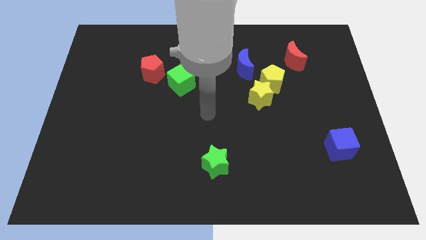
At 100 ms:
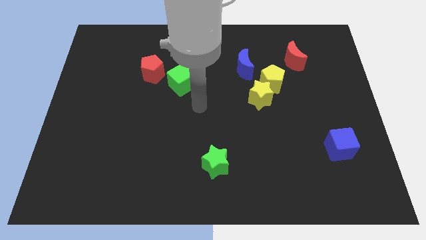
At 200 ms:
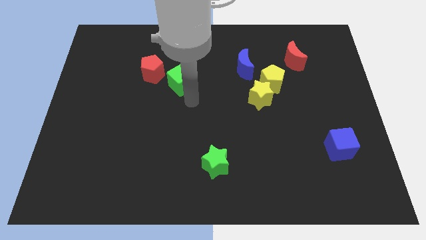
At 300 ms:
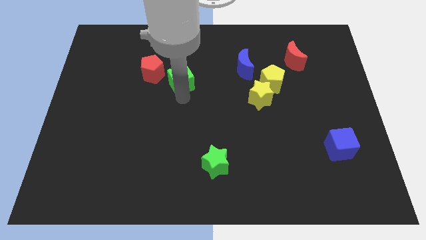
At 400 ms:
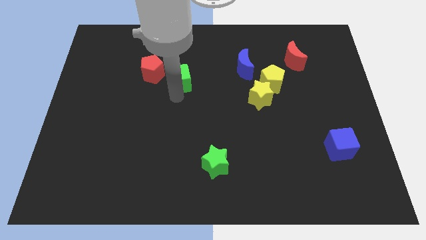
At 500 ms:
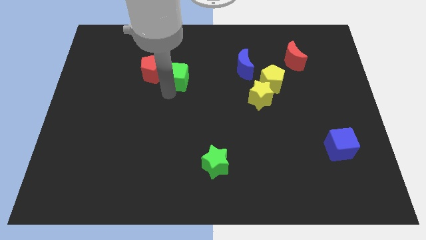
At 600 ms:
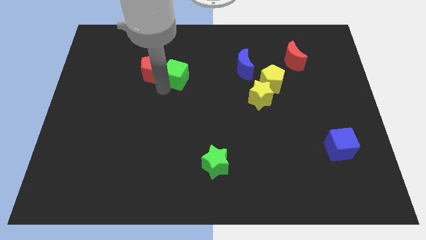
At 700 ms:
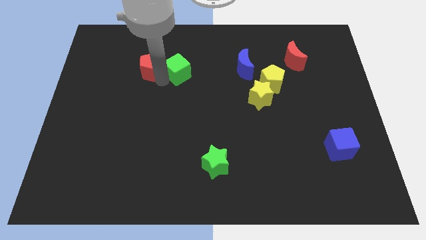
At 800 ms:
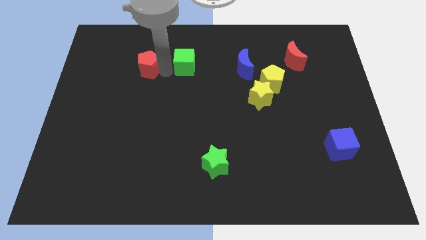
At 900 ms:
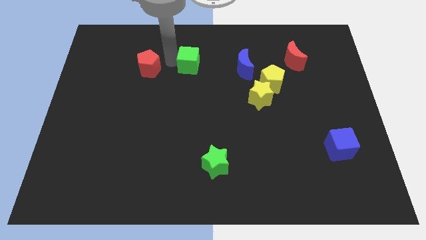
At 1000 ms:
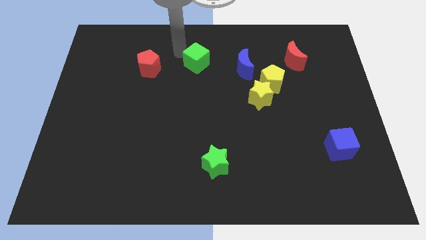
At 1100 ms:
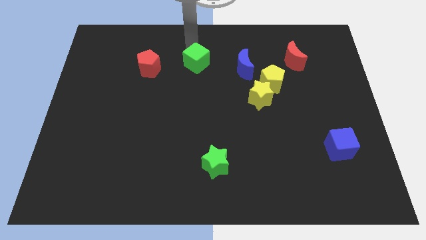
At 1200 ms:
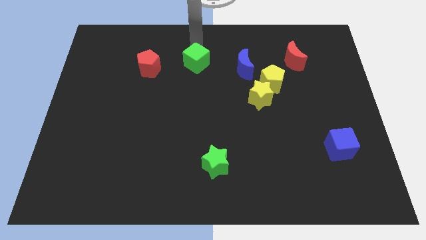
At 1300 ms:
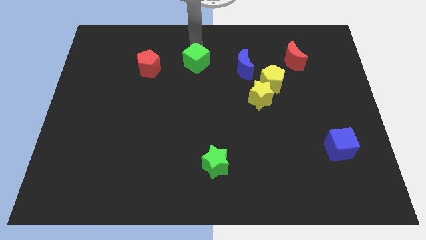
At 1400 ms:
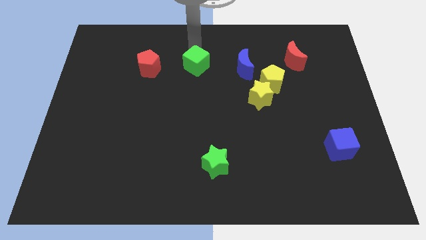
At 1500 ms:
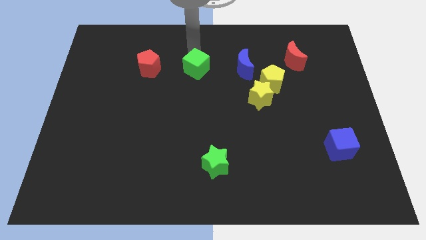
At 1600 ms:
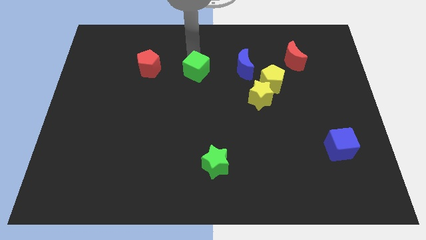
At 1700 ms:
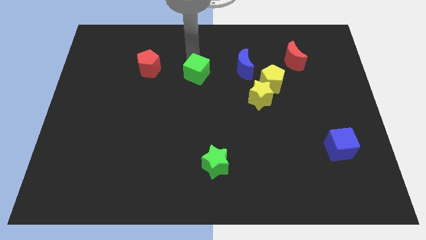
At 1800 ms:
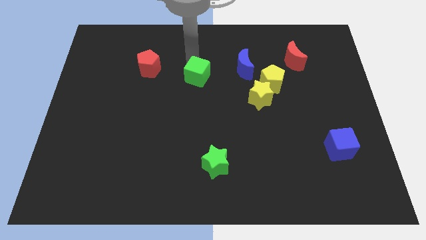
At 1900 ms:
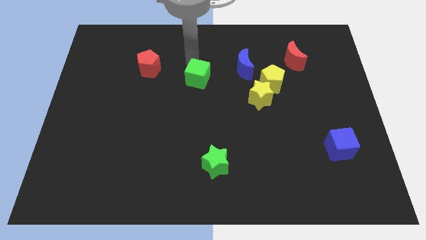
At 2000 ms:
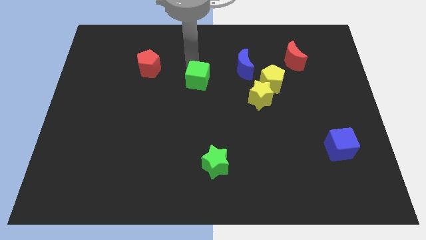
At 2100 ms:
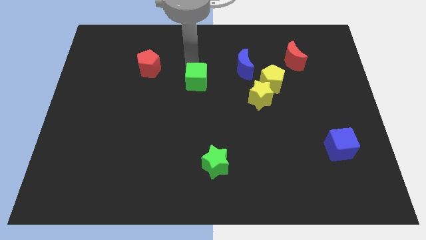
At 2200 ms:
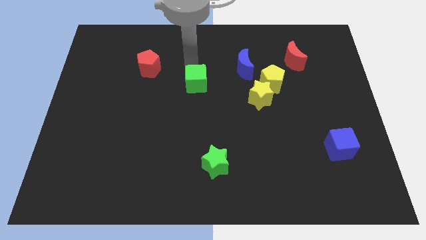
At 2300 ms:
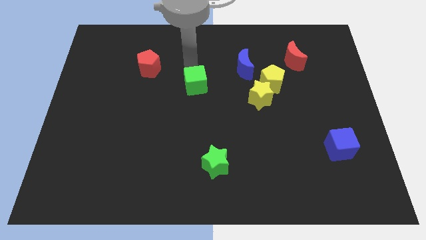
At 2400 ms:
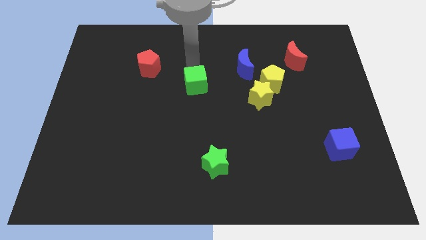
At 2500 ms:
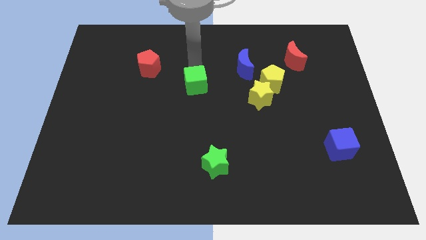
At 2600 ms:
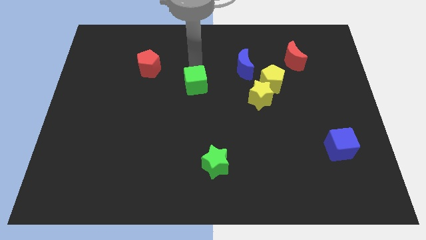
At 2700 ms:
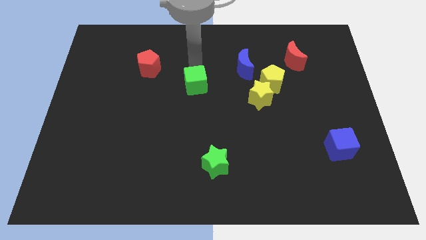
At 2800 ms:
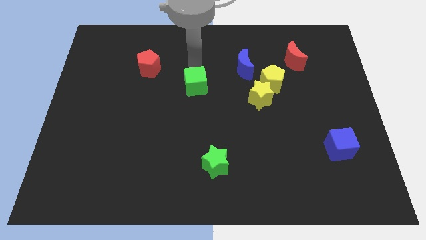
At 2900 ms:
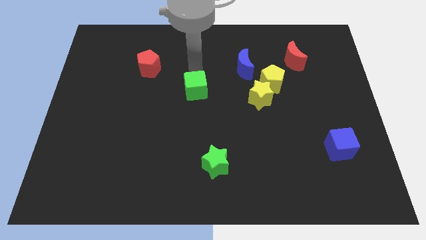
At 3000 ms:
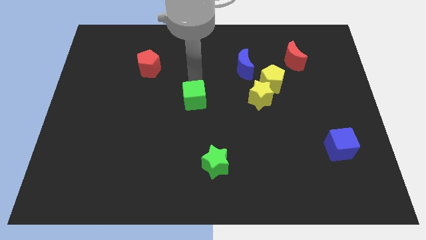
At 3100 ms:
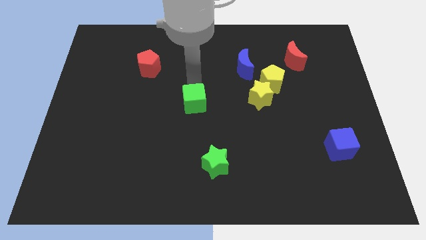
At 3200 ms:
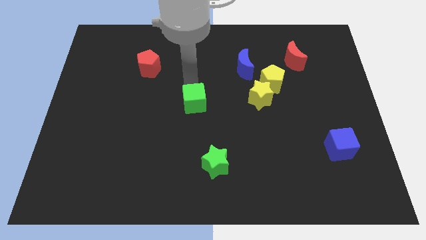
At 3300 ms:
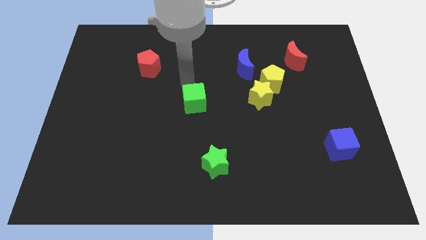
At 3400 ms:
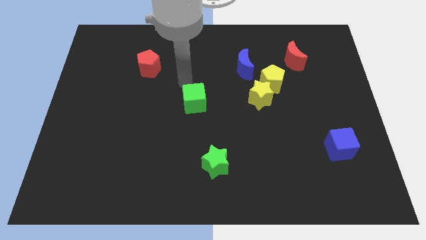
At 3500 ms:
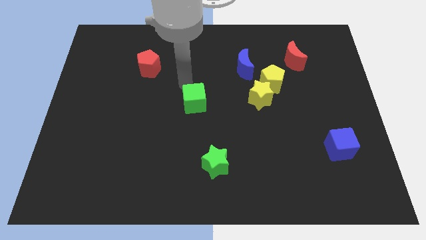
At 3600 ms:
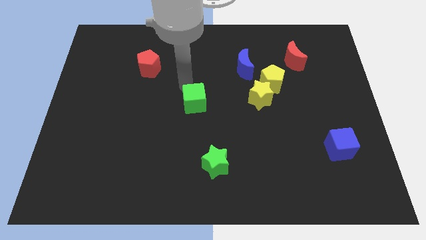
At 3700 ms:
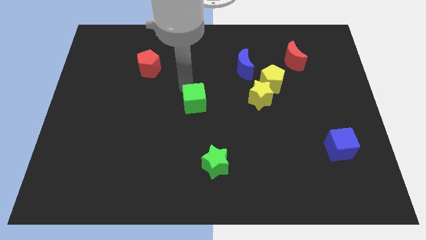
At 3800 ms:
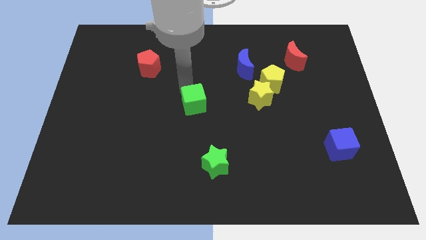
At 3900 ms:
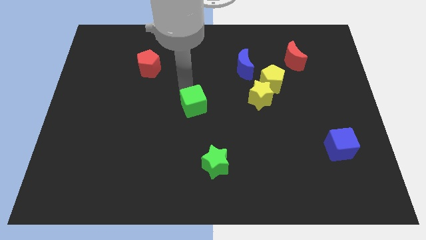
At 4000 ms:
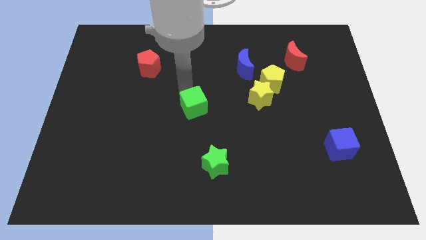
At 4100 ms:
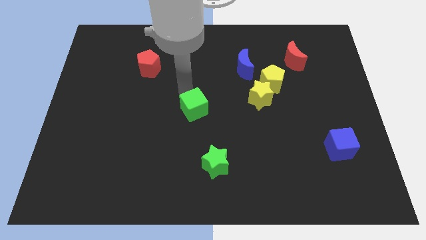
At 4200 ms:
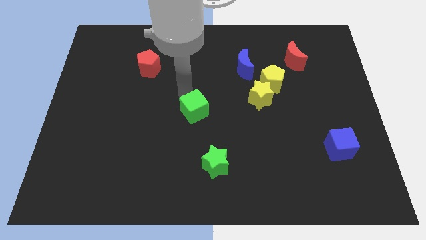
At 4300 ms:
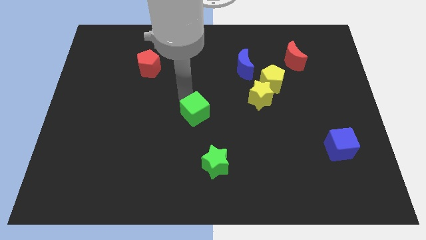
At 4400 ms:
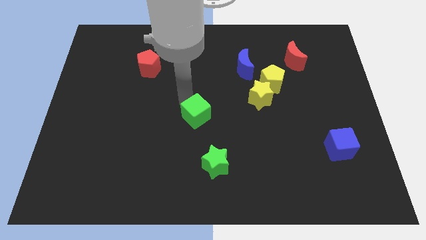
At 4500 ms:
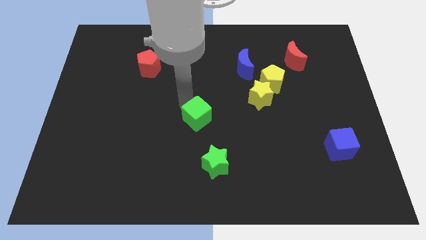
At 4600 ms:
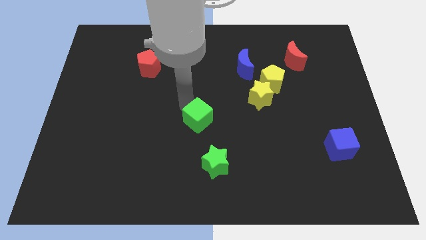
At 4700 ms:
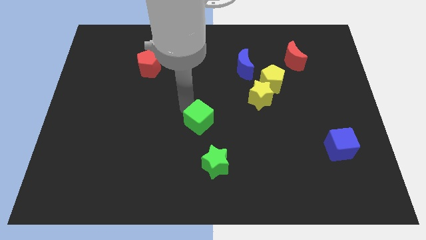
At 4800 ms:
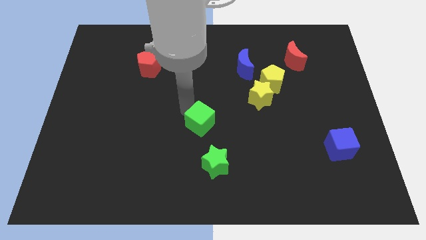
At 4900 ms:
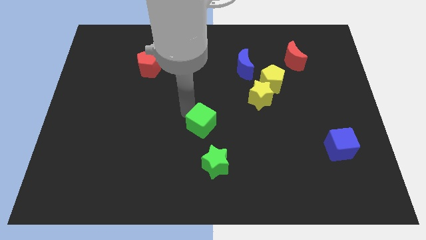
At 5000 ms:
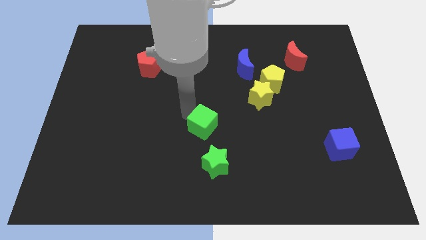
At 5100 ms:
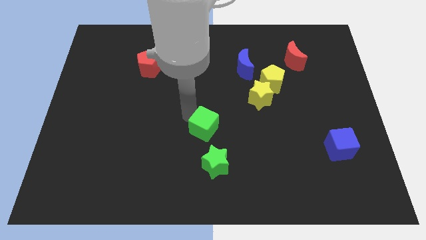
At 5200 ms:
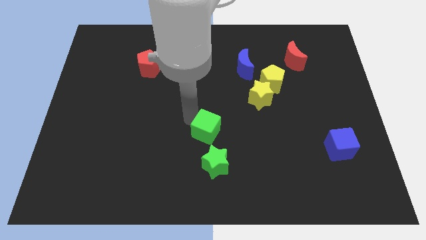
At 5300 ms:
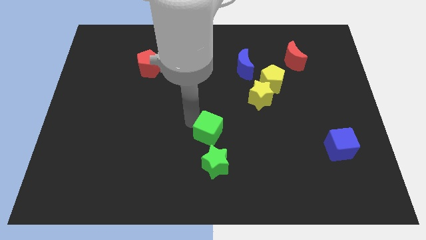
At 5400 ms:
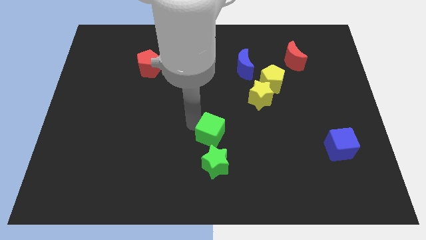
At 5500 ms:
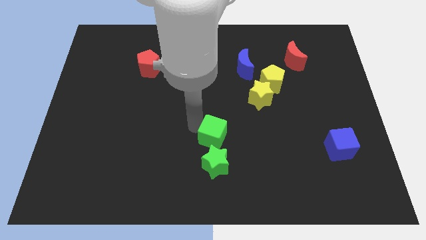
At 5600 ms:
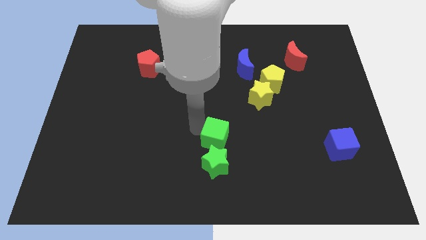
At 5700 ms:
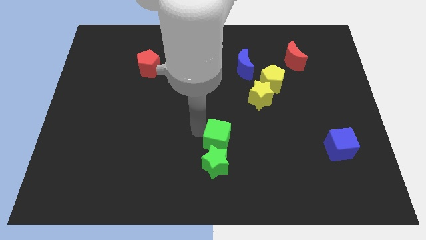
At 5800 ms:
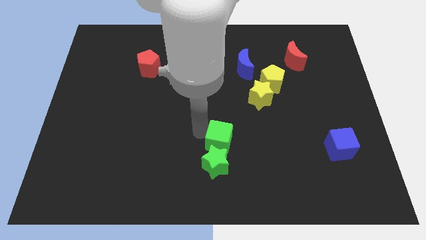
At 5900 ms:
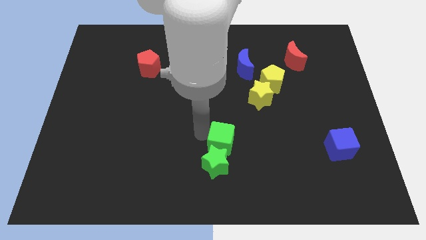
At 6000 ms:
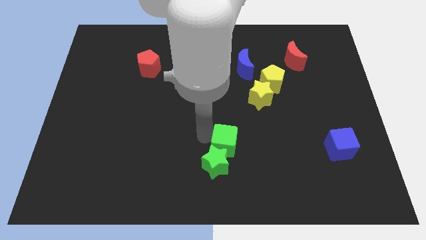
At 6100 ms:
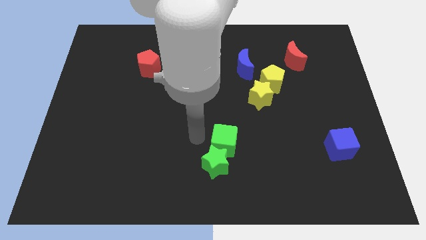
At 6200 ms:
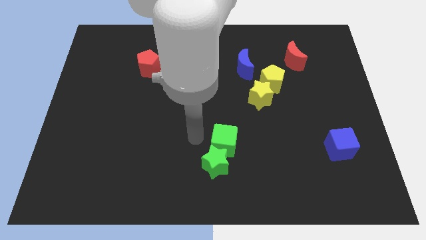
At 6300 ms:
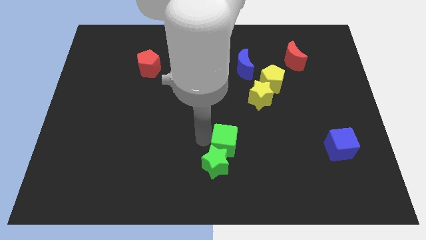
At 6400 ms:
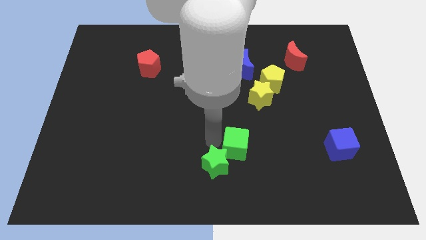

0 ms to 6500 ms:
move the green cube downwards and to the right diagonally

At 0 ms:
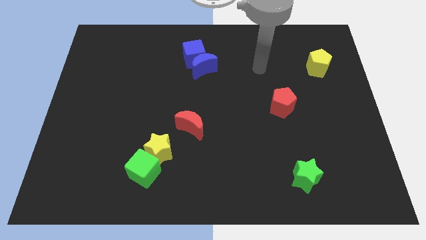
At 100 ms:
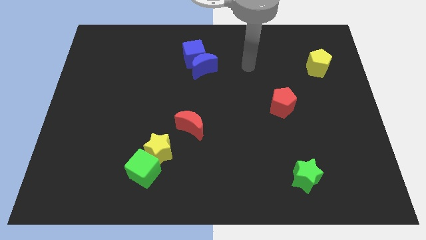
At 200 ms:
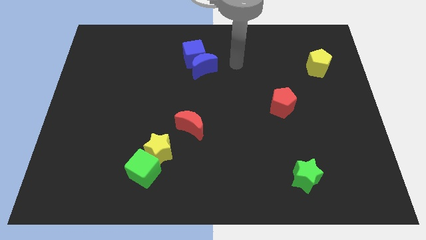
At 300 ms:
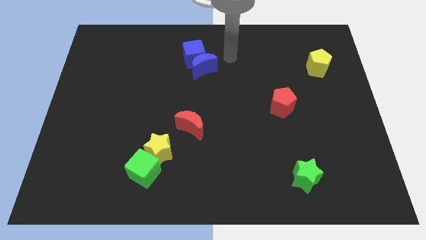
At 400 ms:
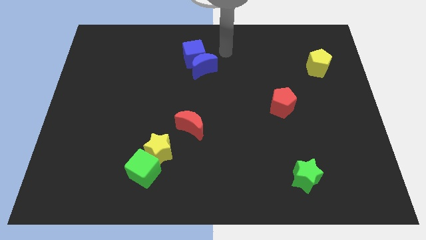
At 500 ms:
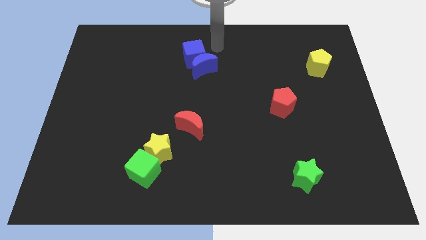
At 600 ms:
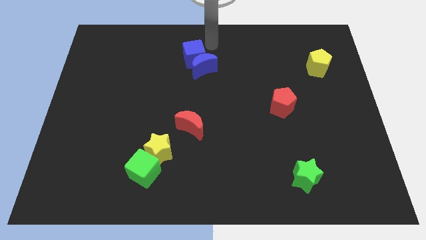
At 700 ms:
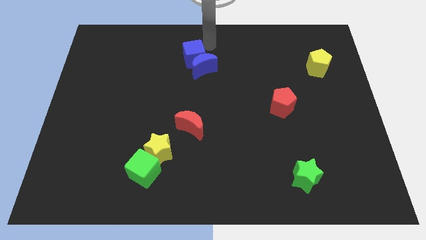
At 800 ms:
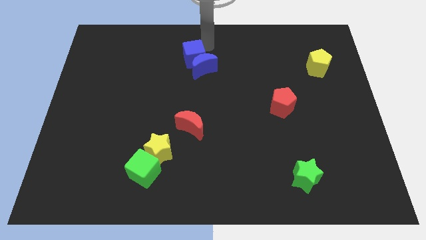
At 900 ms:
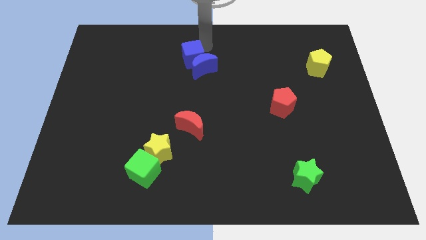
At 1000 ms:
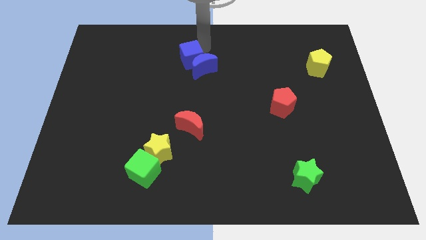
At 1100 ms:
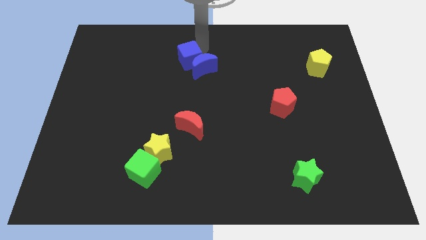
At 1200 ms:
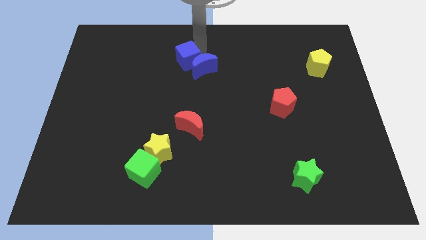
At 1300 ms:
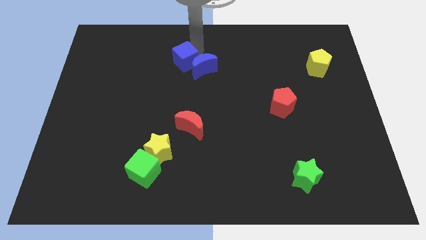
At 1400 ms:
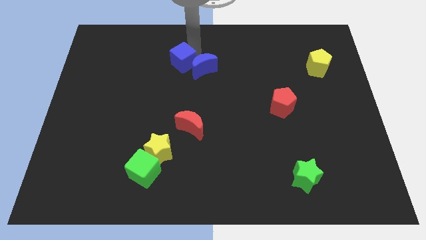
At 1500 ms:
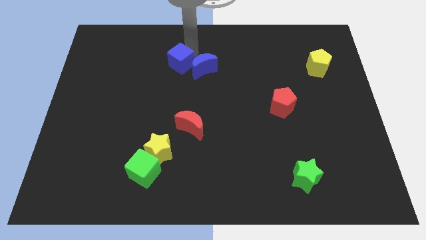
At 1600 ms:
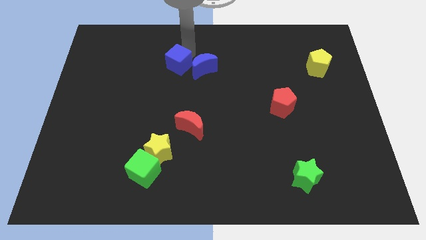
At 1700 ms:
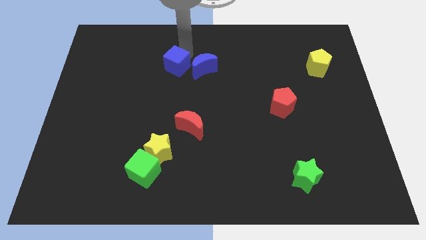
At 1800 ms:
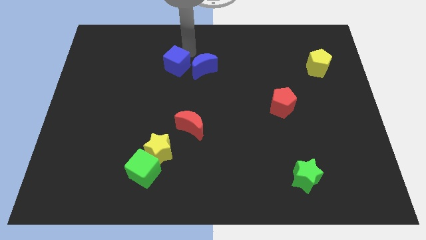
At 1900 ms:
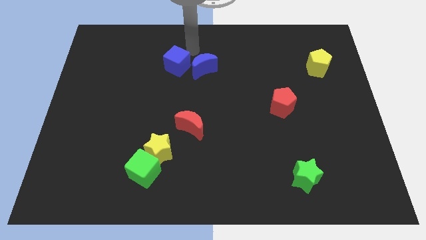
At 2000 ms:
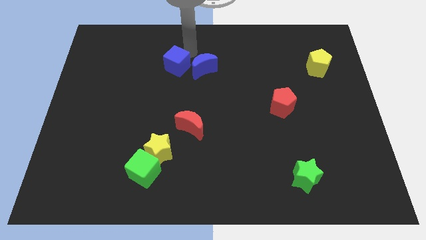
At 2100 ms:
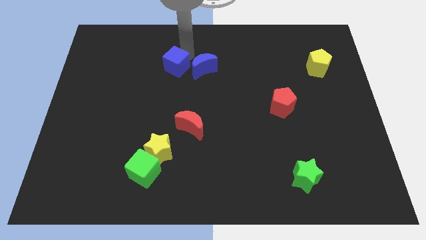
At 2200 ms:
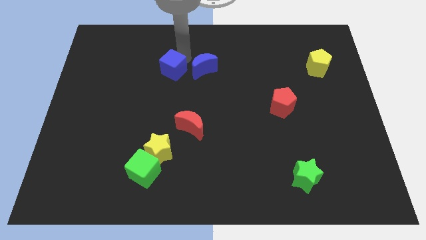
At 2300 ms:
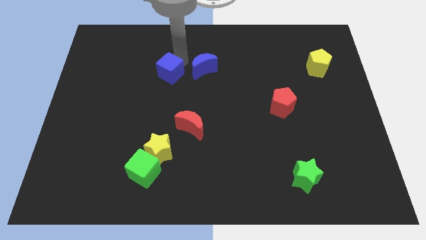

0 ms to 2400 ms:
slightly slide the blue cube diagonally downwards and to the left
